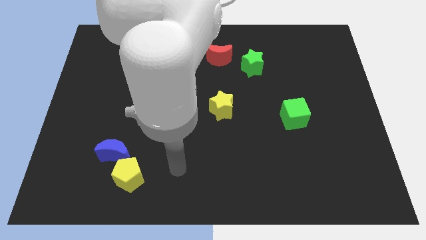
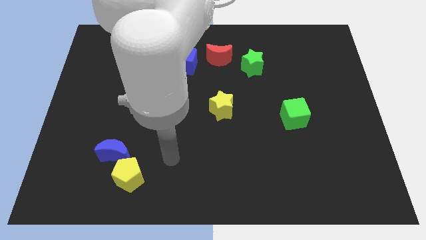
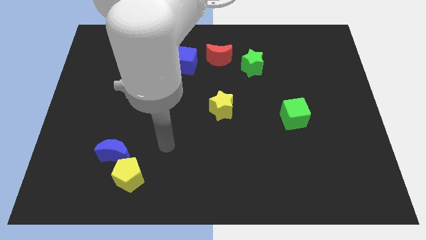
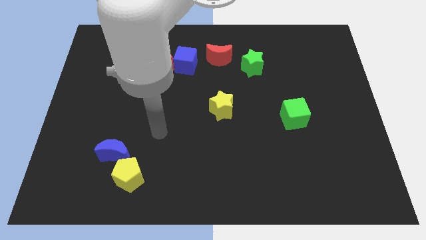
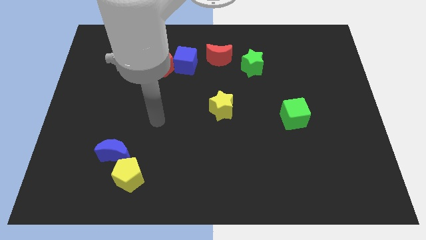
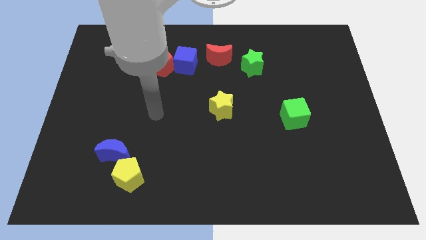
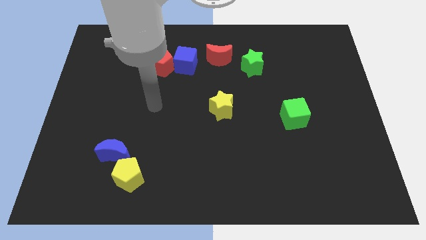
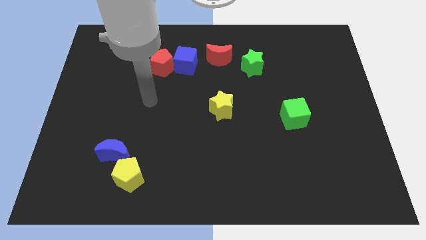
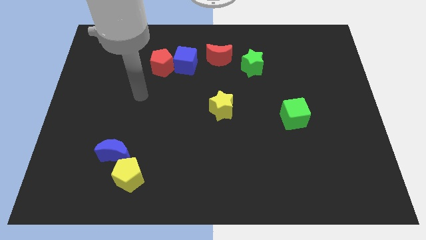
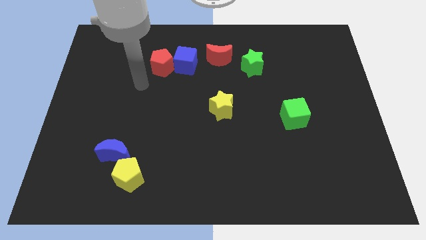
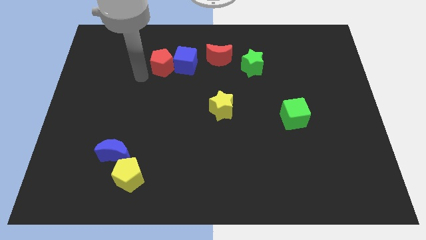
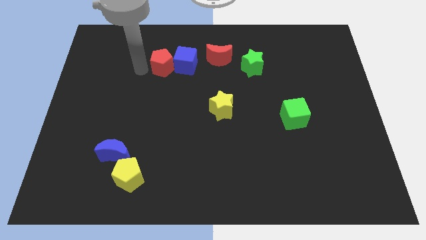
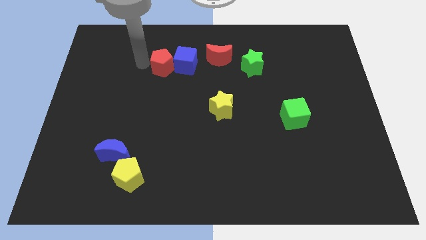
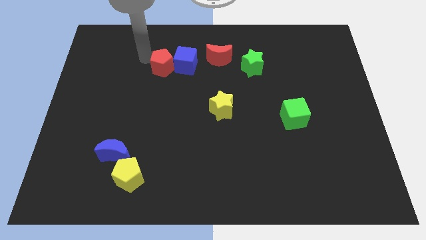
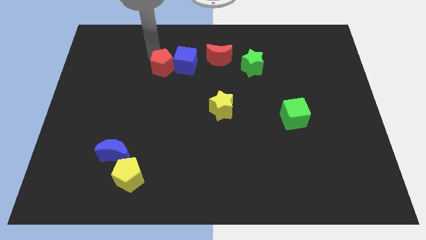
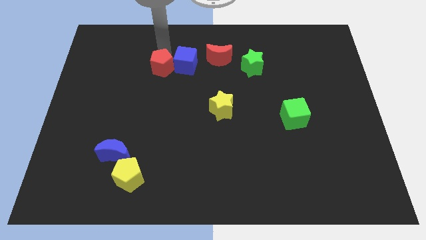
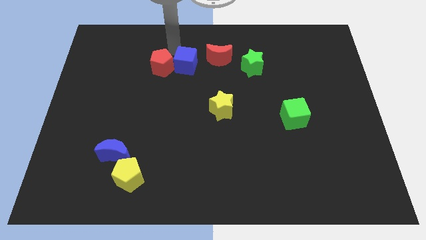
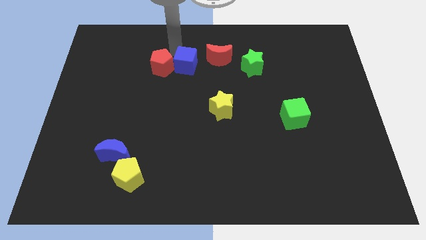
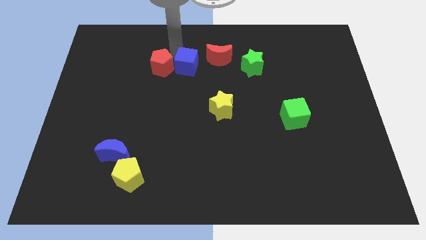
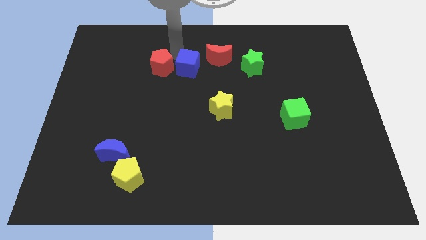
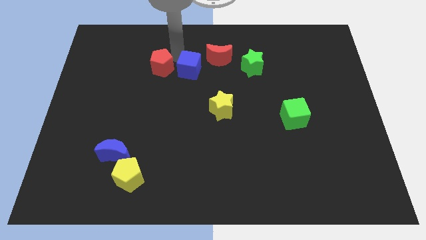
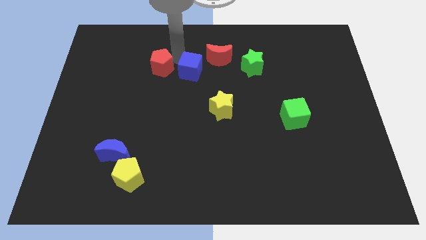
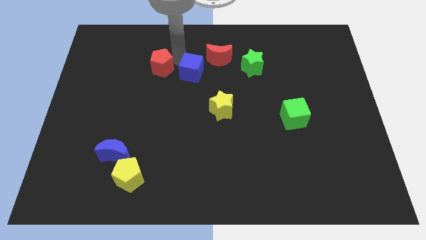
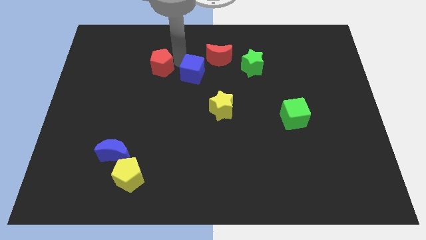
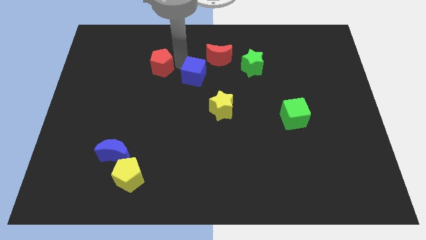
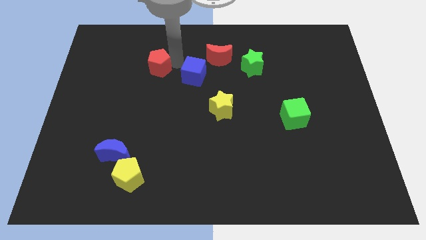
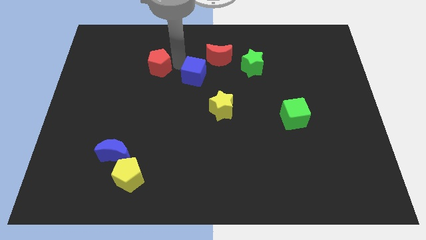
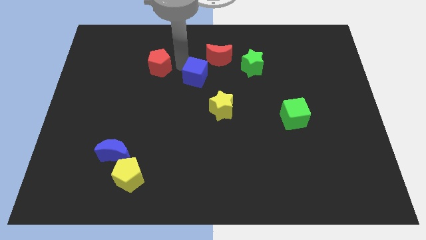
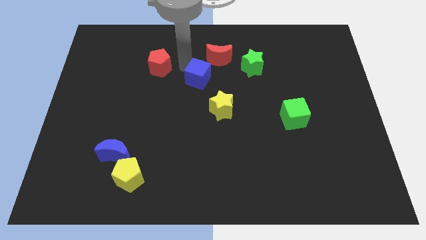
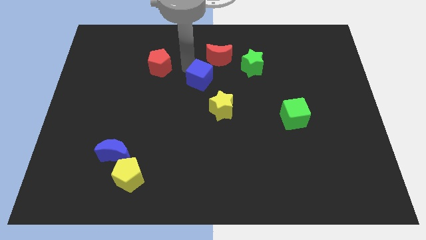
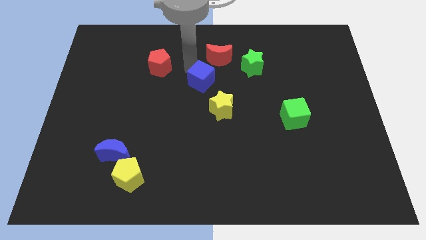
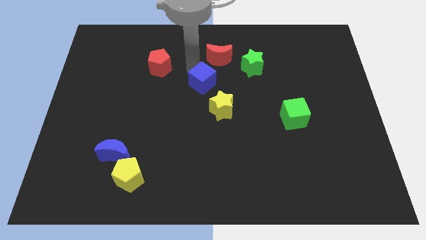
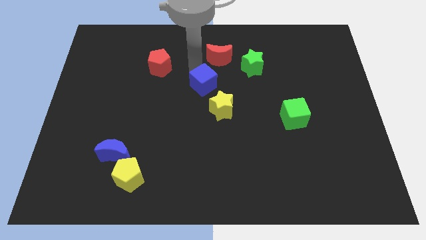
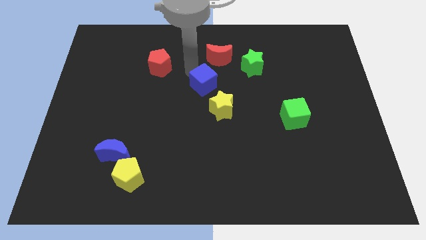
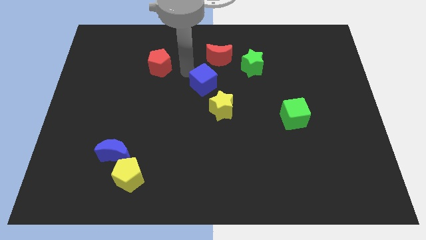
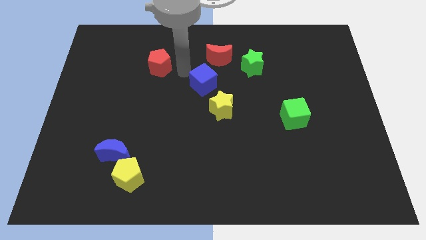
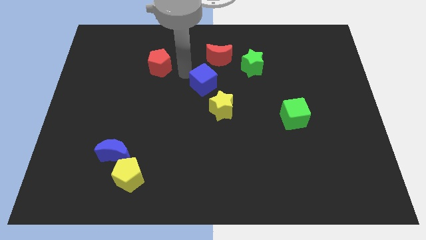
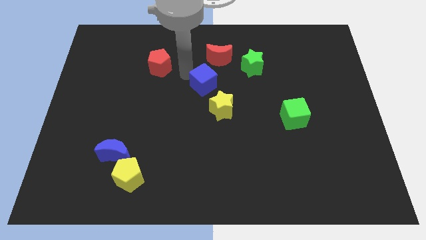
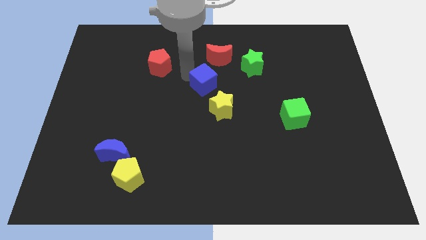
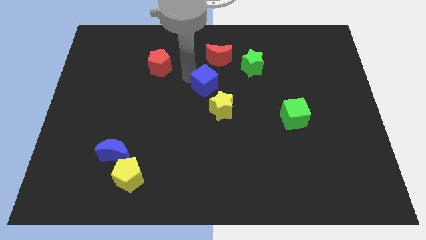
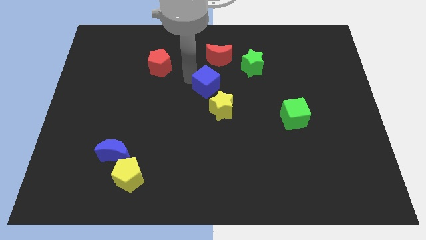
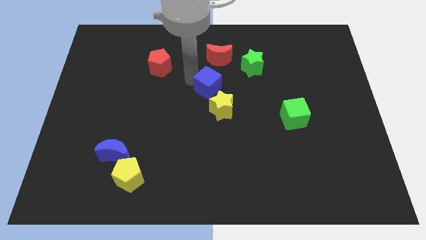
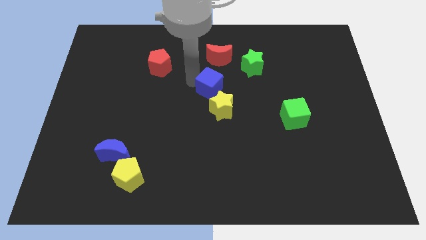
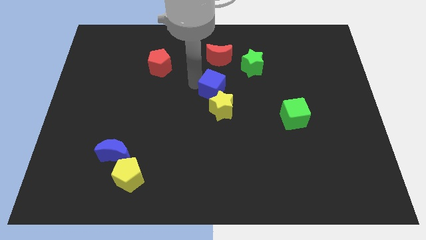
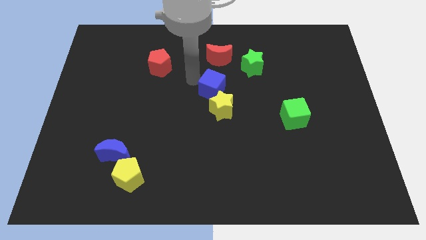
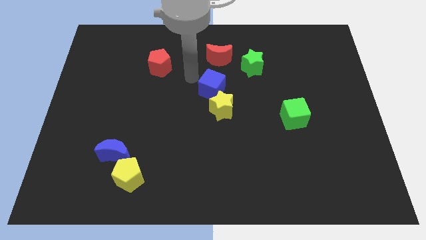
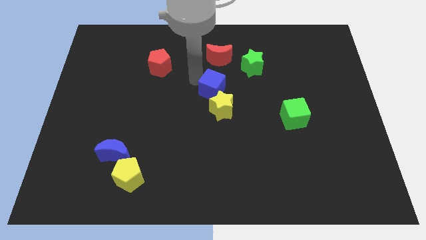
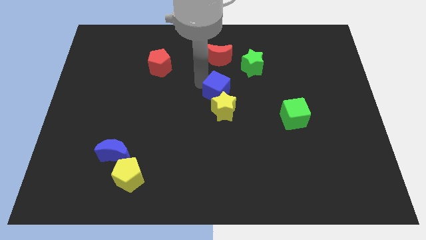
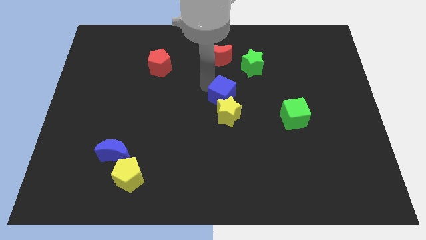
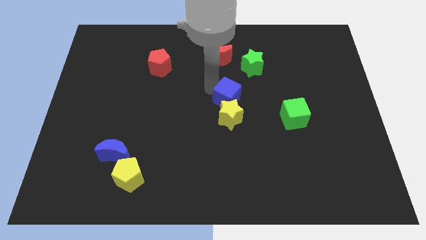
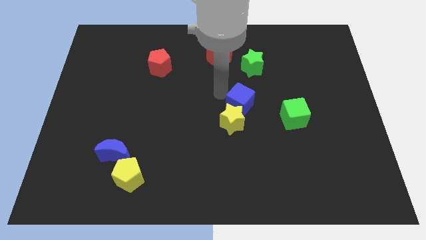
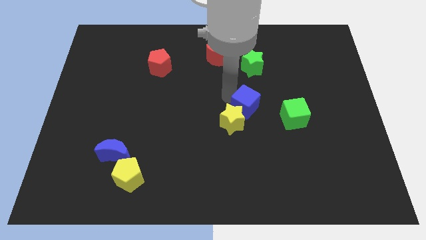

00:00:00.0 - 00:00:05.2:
push the blue cube down and to the right diagonally

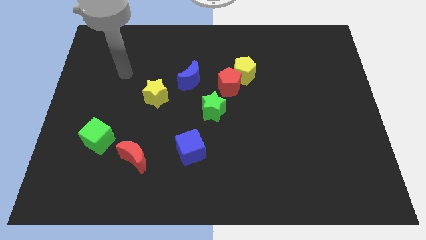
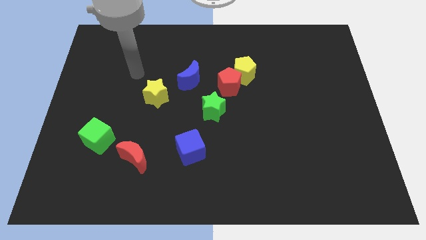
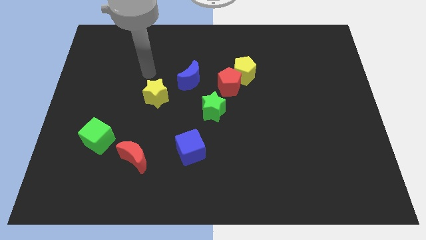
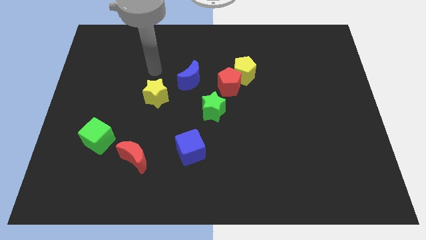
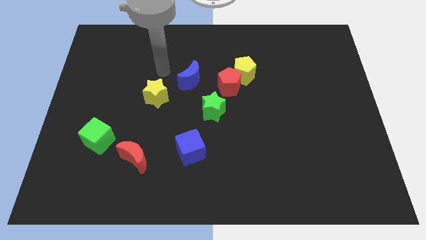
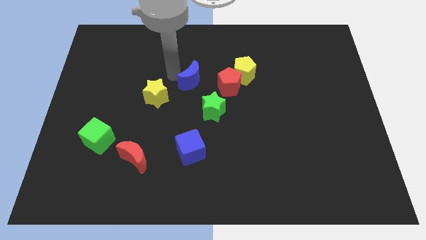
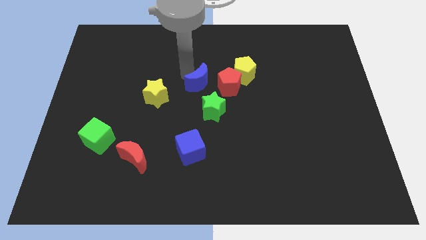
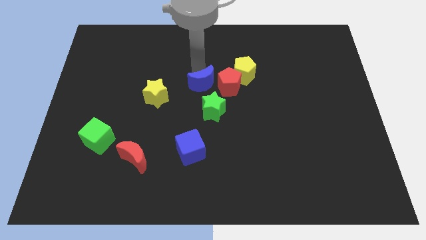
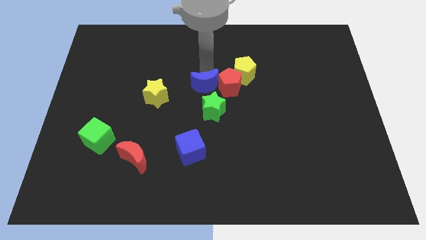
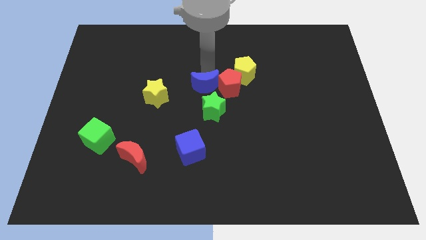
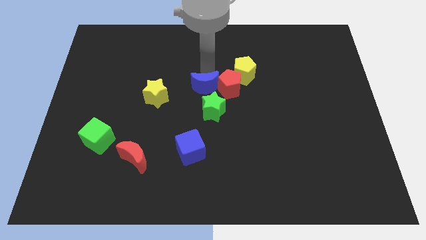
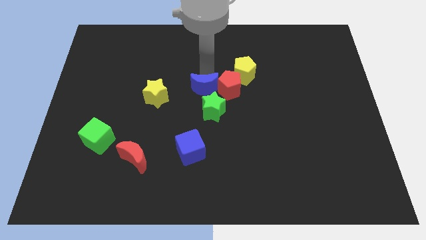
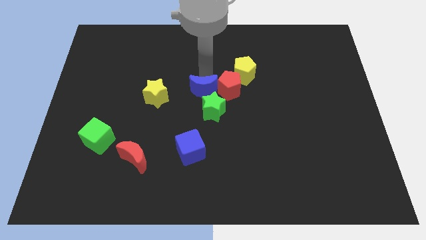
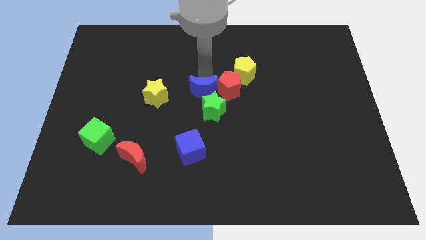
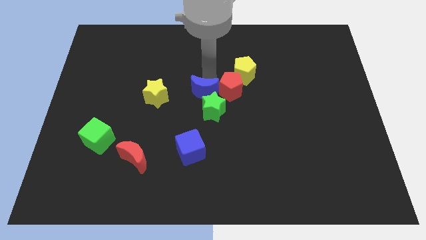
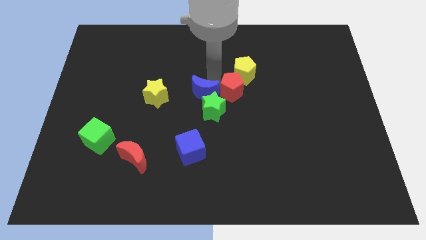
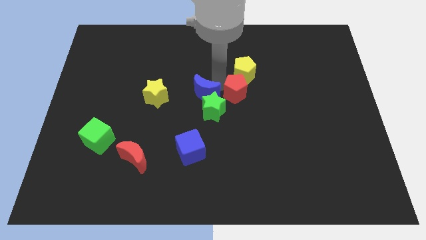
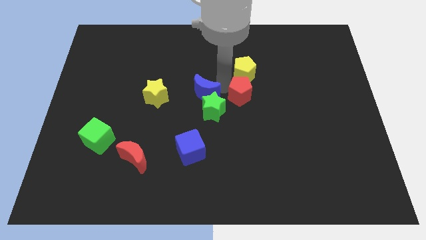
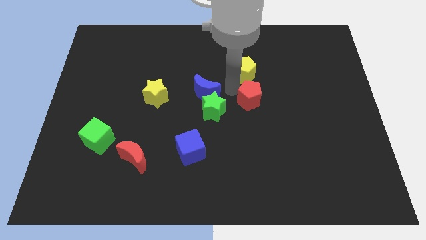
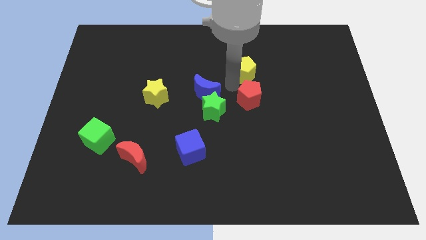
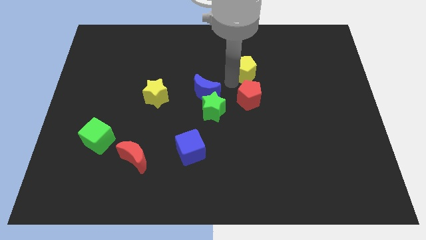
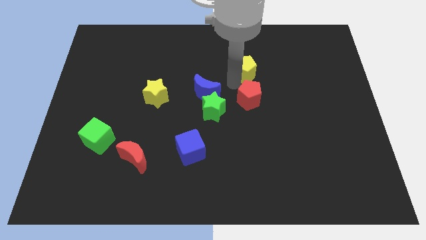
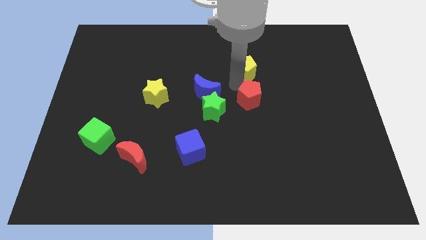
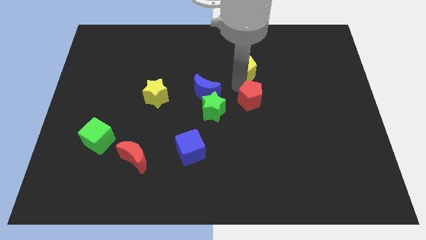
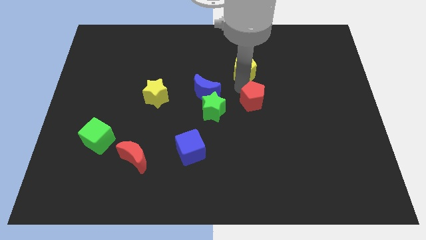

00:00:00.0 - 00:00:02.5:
slightly move the red pentagon down and right

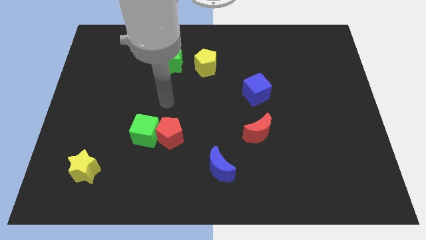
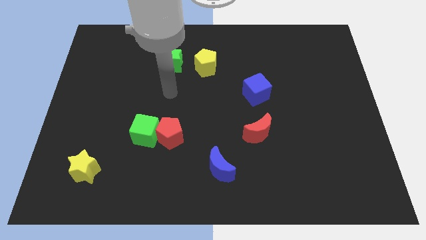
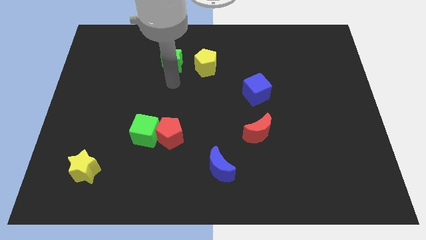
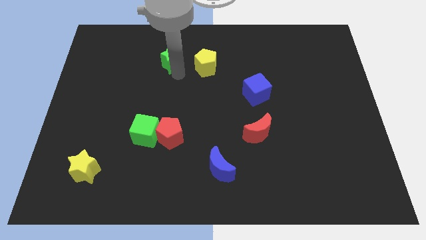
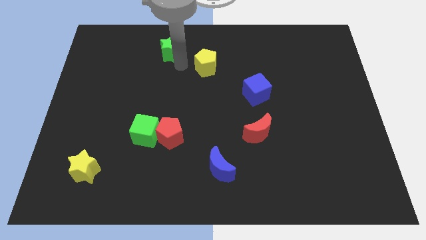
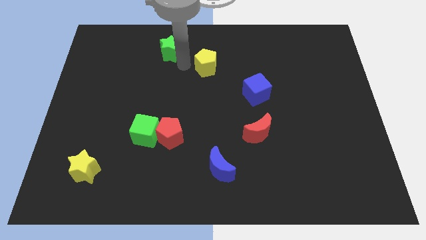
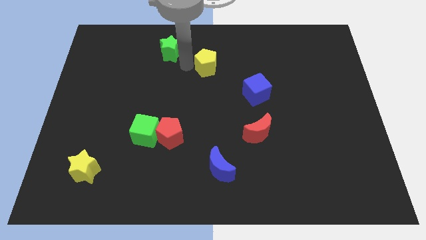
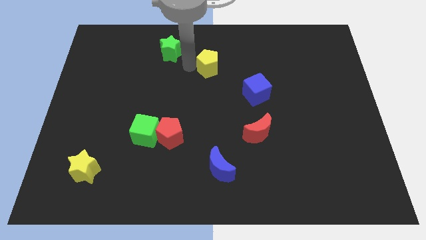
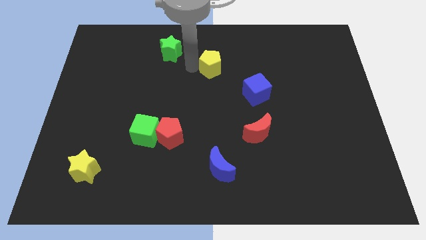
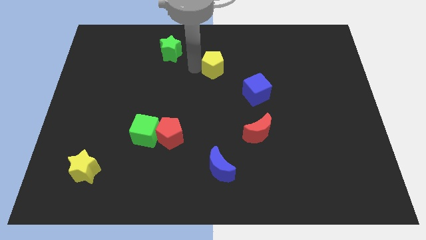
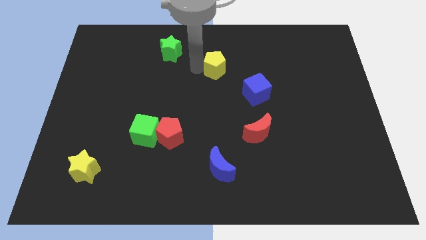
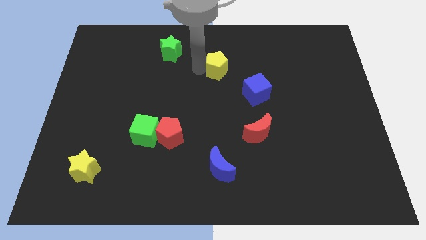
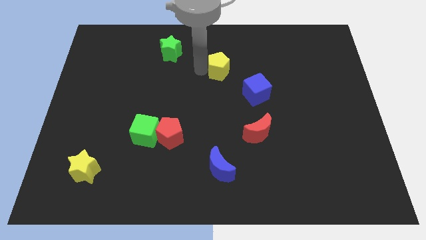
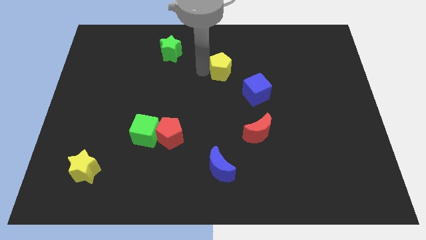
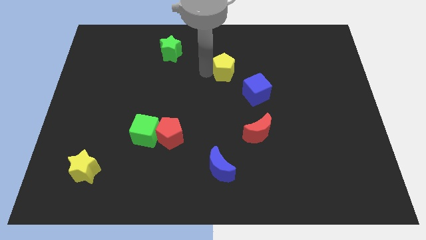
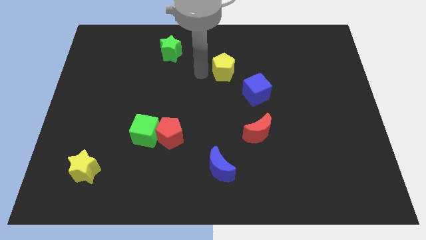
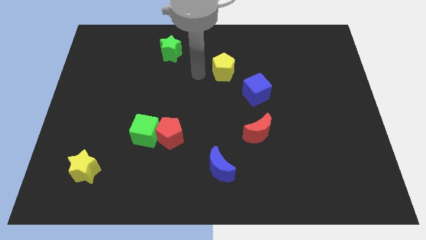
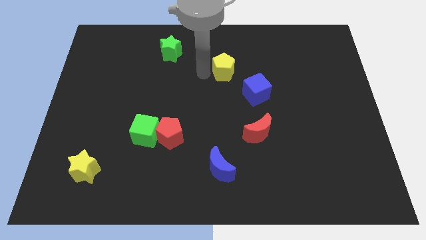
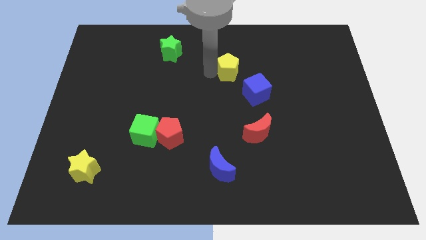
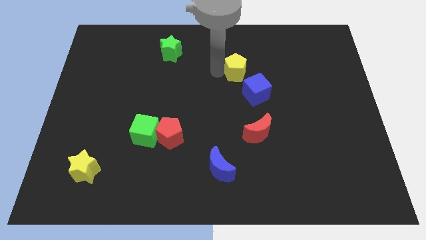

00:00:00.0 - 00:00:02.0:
move the yellow pentagon to the right slightly
